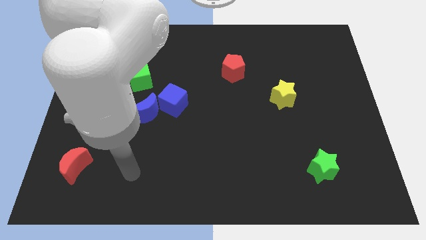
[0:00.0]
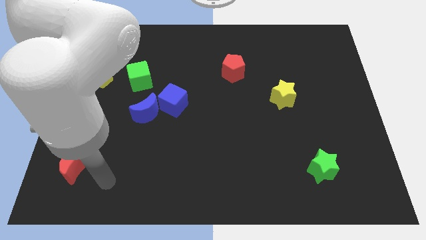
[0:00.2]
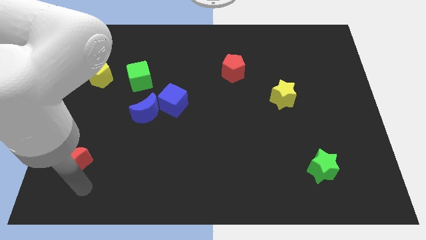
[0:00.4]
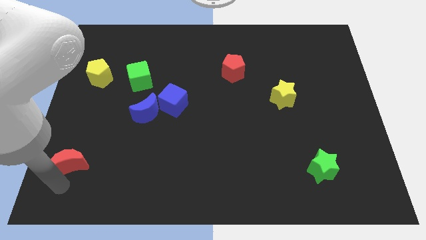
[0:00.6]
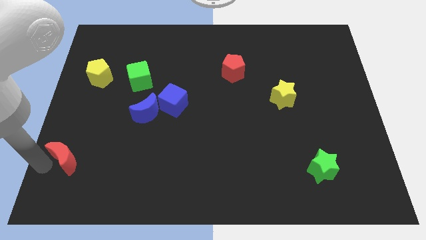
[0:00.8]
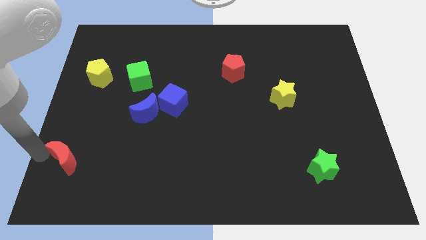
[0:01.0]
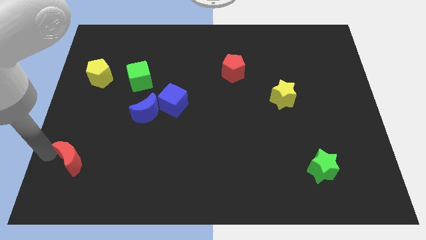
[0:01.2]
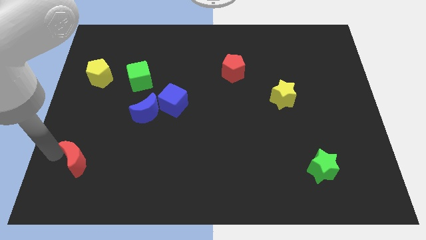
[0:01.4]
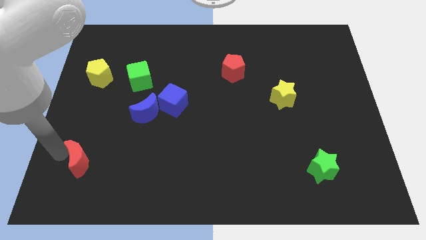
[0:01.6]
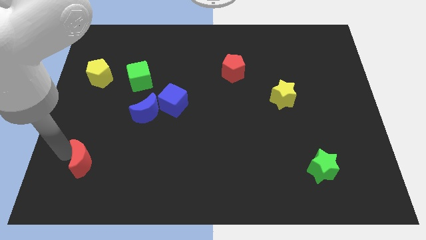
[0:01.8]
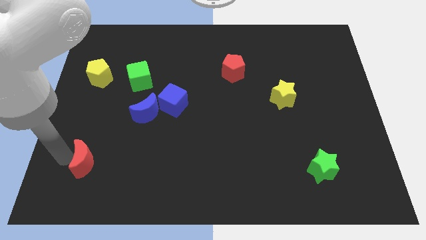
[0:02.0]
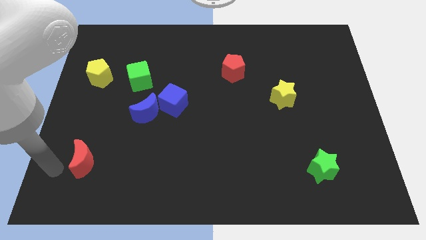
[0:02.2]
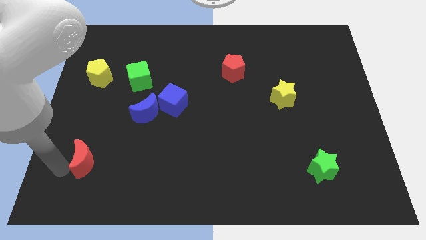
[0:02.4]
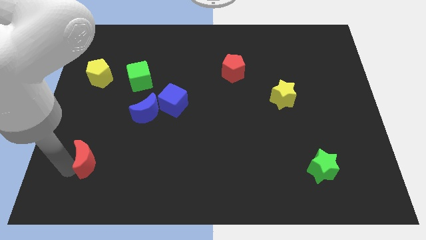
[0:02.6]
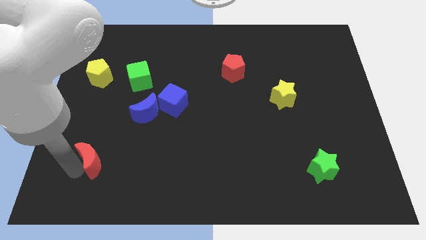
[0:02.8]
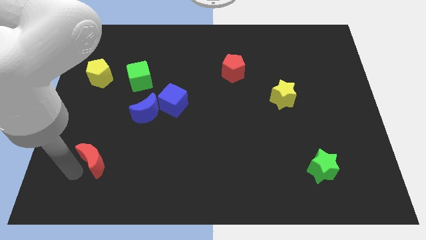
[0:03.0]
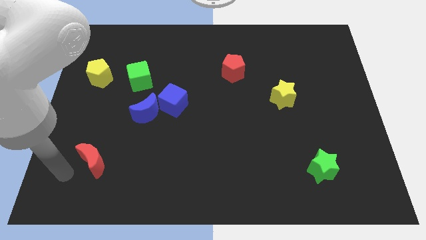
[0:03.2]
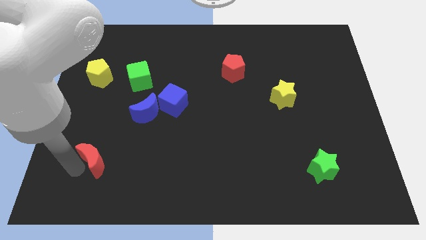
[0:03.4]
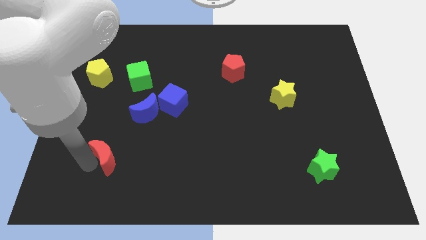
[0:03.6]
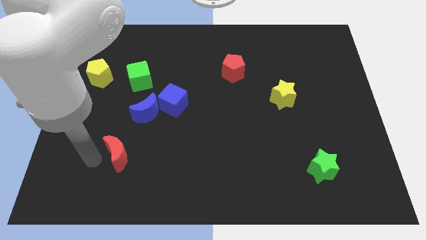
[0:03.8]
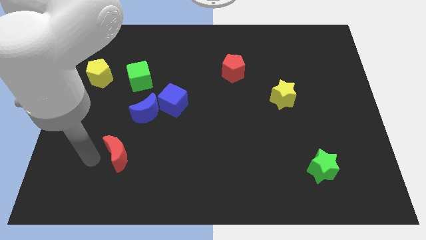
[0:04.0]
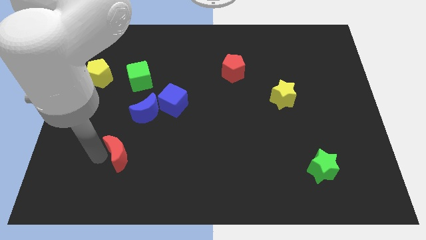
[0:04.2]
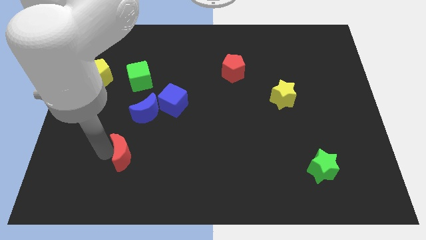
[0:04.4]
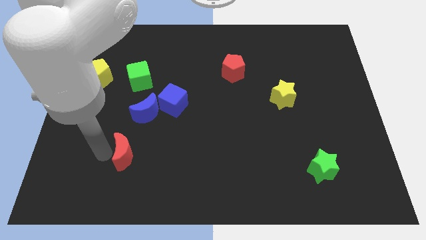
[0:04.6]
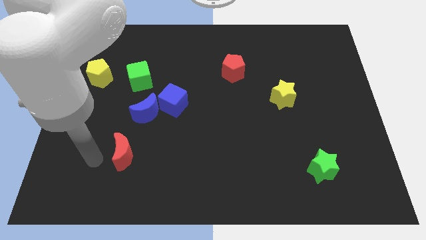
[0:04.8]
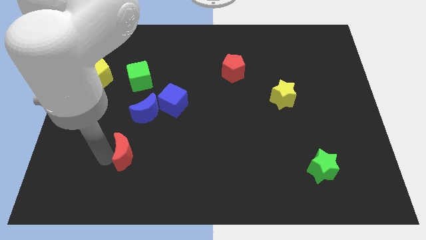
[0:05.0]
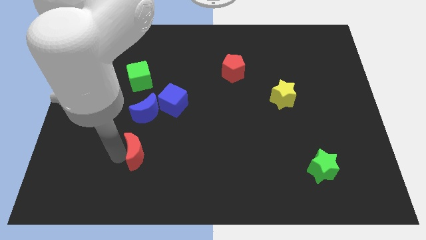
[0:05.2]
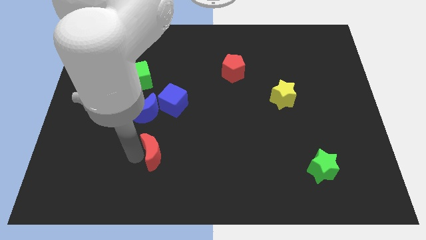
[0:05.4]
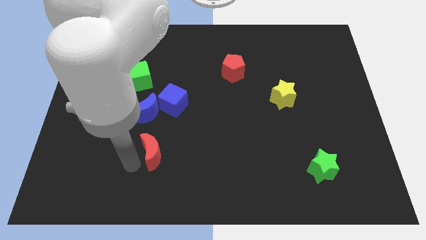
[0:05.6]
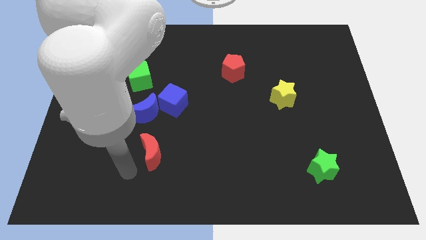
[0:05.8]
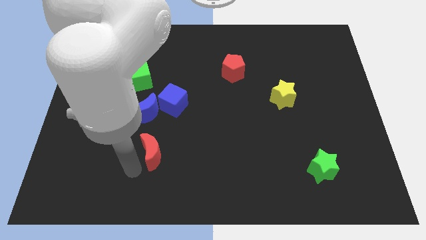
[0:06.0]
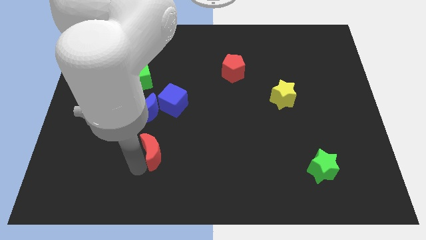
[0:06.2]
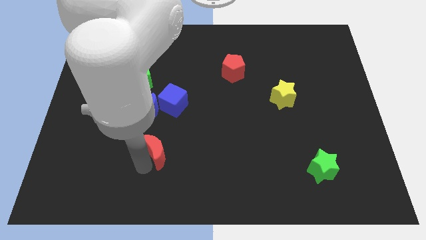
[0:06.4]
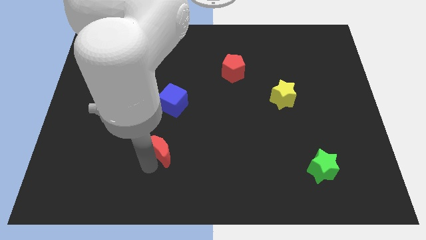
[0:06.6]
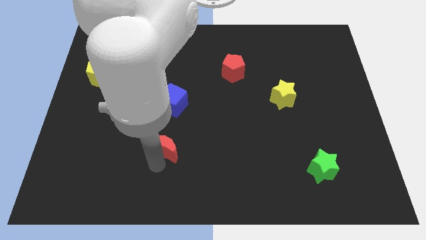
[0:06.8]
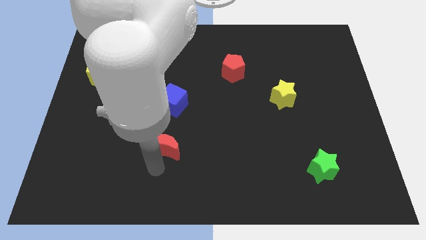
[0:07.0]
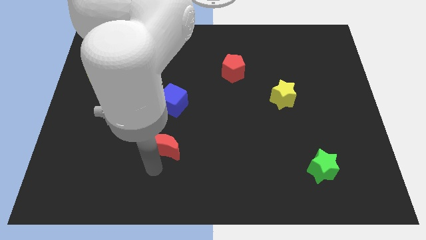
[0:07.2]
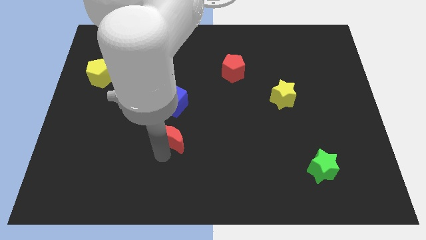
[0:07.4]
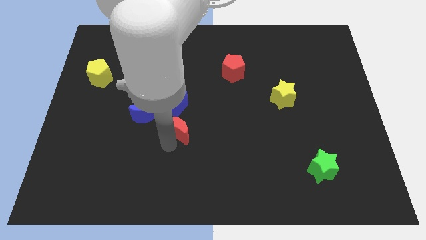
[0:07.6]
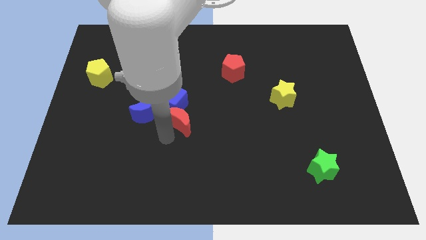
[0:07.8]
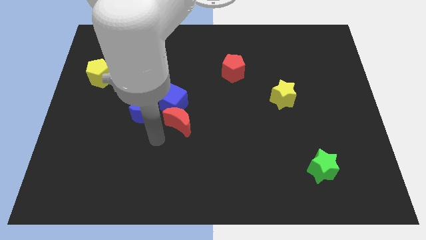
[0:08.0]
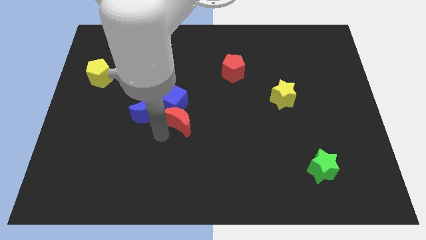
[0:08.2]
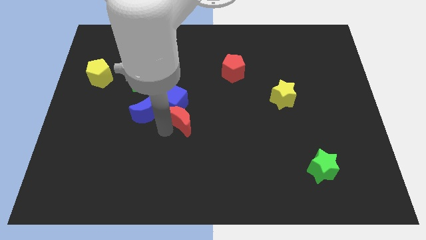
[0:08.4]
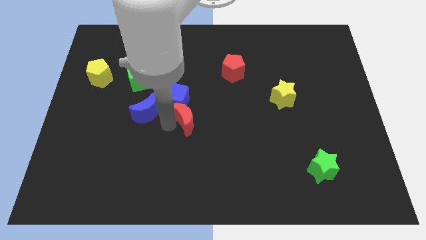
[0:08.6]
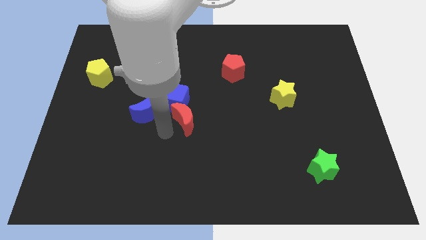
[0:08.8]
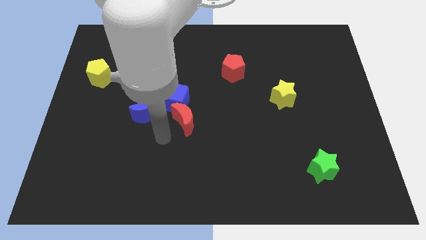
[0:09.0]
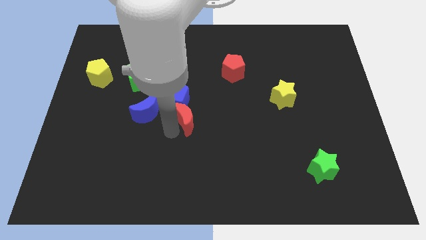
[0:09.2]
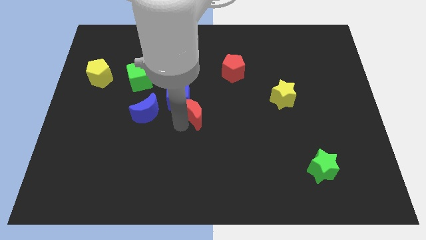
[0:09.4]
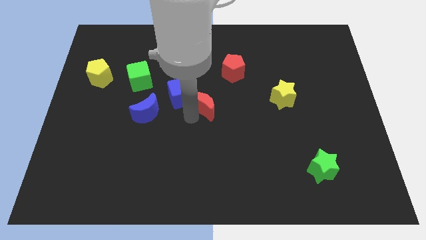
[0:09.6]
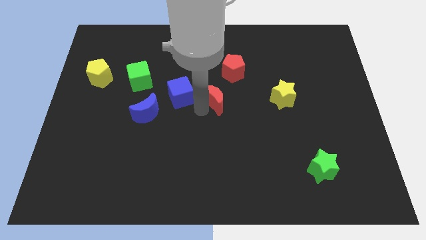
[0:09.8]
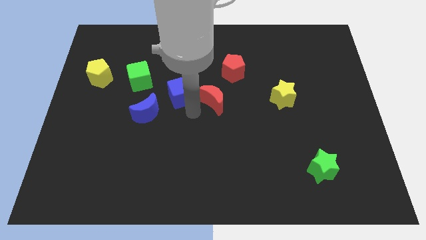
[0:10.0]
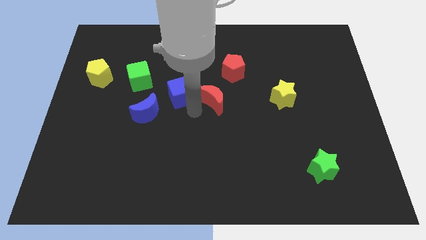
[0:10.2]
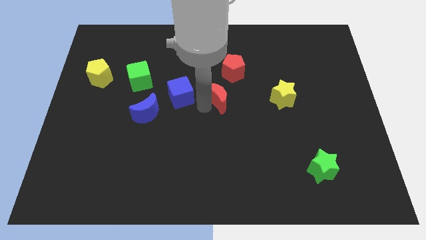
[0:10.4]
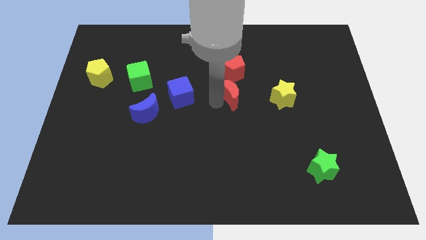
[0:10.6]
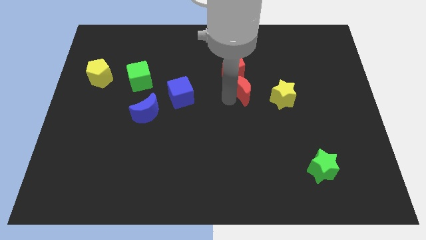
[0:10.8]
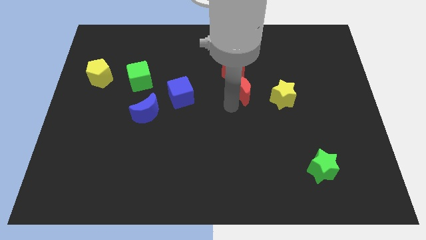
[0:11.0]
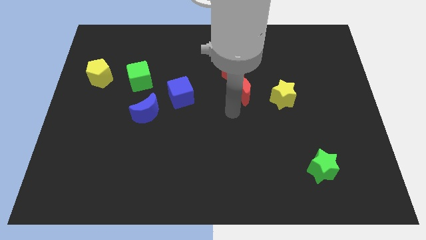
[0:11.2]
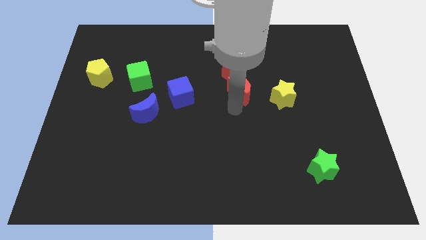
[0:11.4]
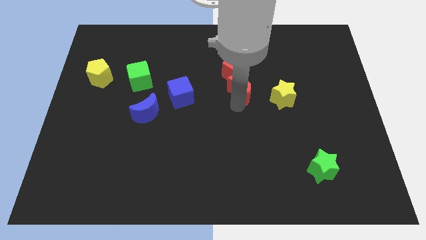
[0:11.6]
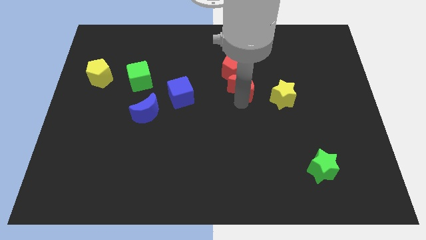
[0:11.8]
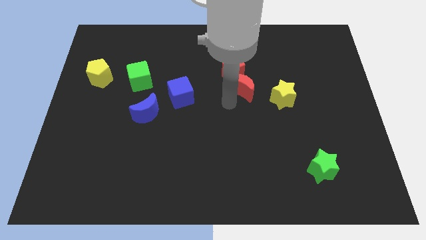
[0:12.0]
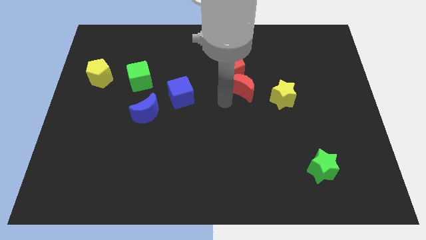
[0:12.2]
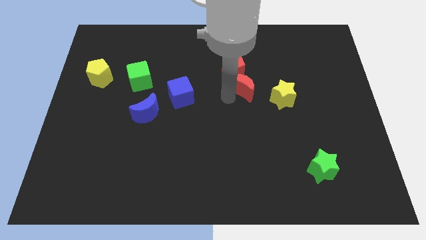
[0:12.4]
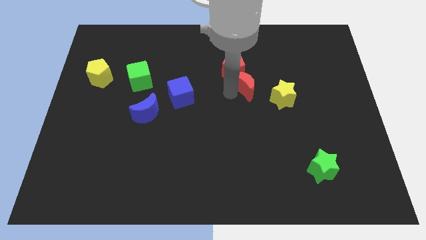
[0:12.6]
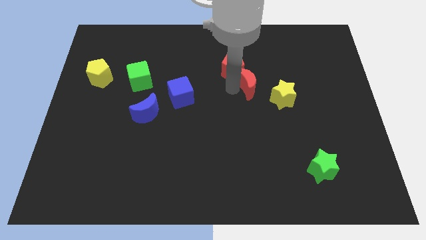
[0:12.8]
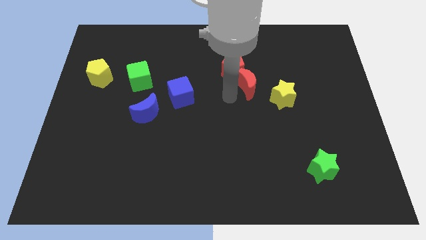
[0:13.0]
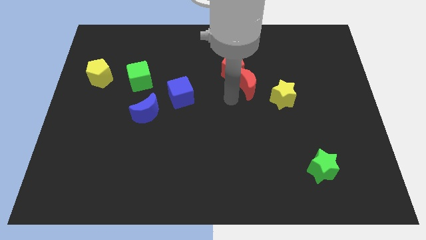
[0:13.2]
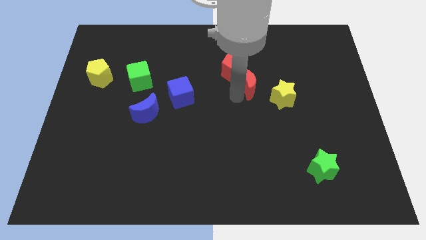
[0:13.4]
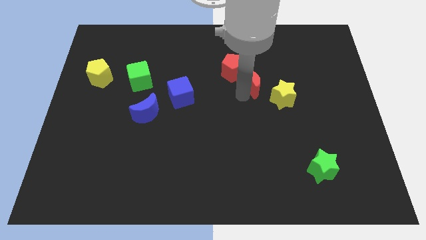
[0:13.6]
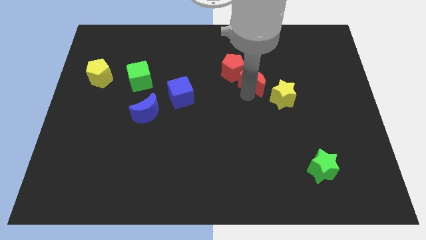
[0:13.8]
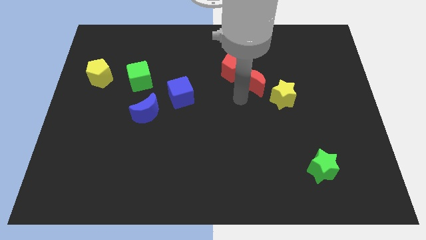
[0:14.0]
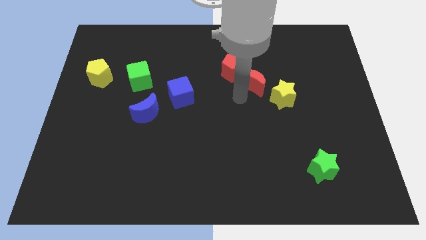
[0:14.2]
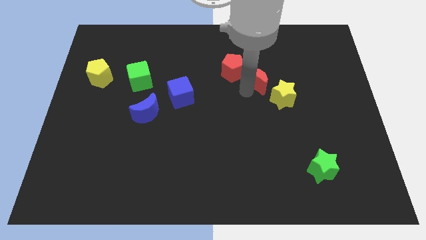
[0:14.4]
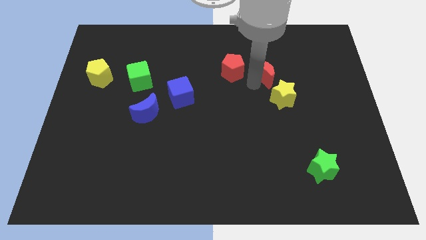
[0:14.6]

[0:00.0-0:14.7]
push the red moon above the yellow star
